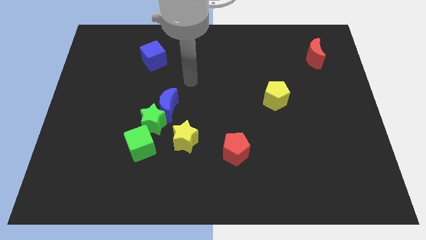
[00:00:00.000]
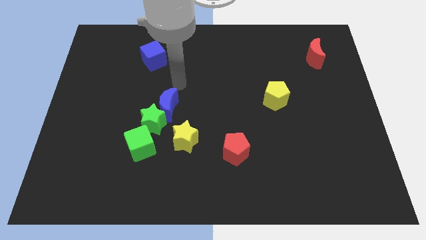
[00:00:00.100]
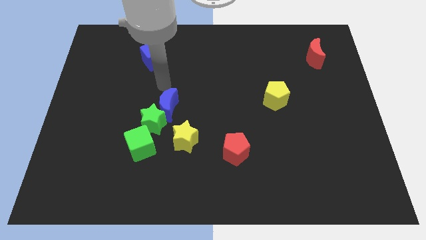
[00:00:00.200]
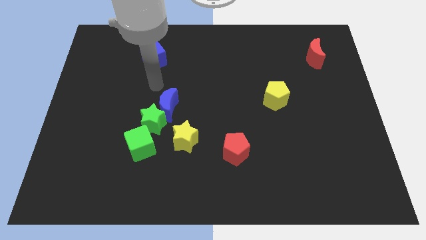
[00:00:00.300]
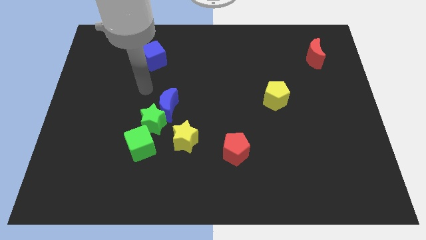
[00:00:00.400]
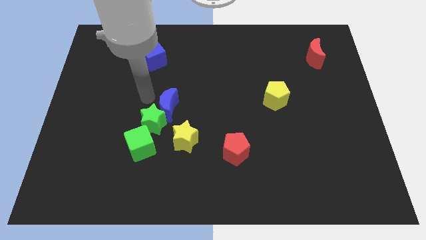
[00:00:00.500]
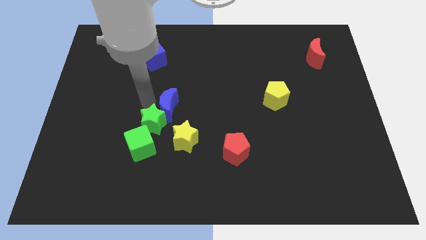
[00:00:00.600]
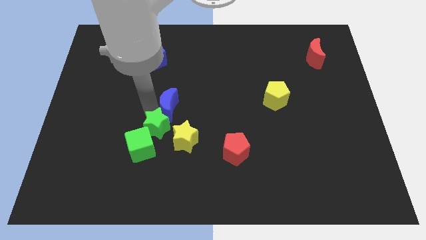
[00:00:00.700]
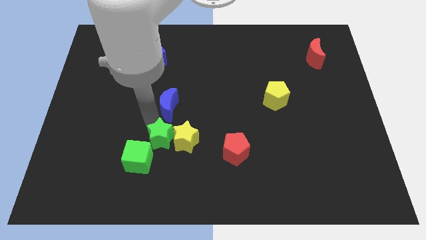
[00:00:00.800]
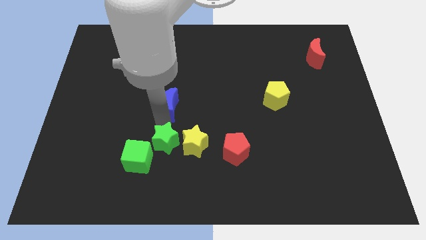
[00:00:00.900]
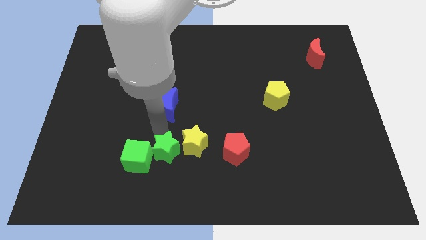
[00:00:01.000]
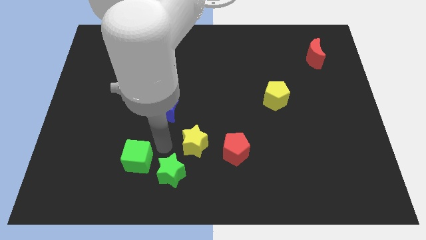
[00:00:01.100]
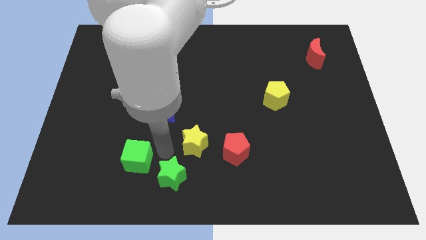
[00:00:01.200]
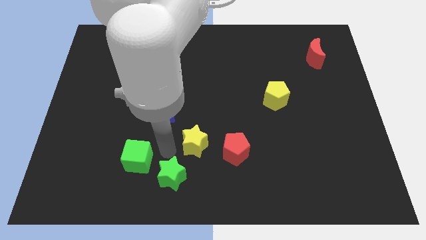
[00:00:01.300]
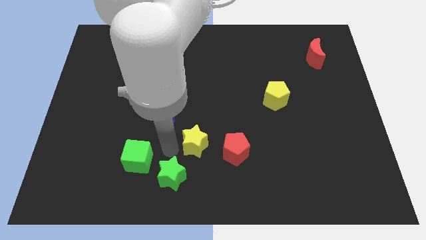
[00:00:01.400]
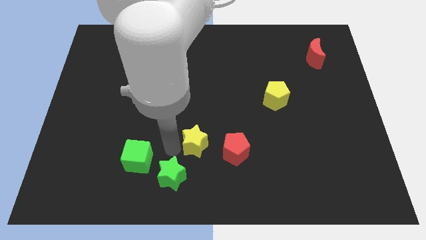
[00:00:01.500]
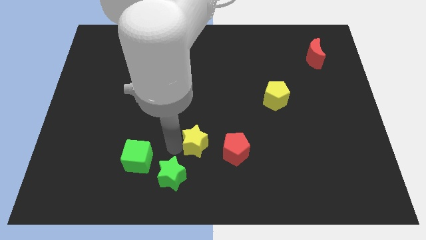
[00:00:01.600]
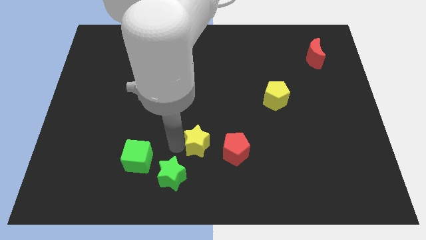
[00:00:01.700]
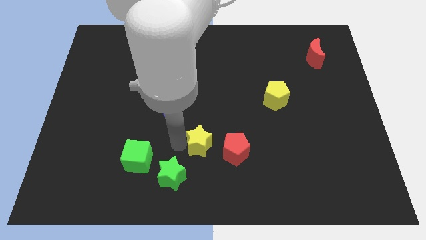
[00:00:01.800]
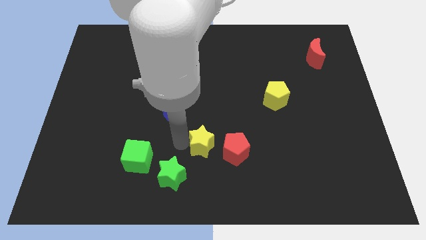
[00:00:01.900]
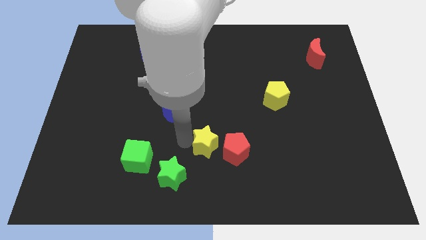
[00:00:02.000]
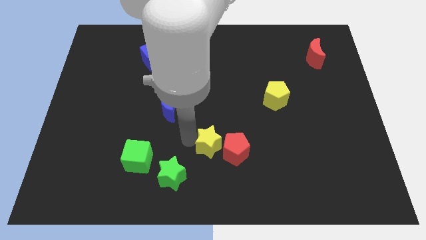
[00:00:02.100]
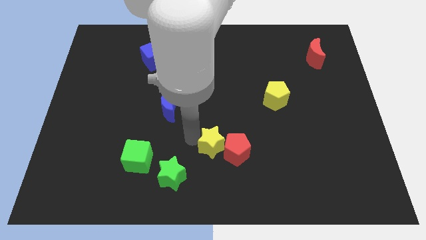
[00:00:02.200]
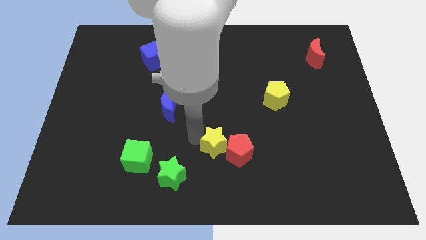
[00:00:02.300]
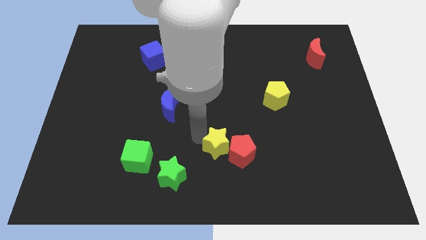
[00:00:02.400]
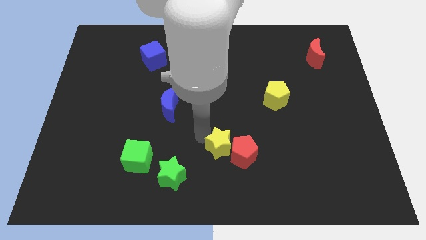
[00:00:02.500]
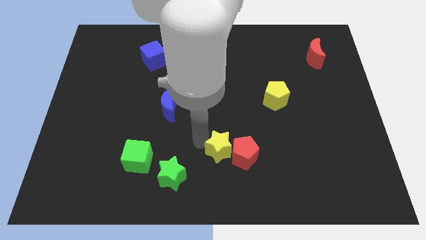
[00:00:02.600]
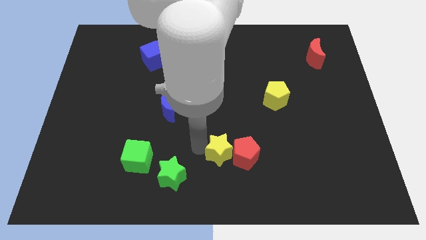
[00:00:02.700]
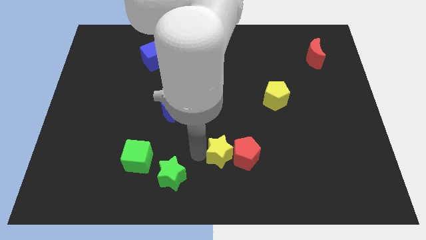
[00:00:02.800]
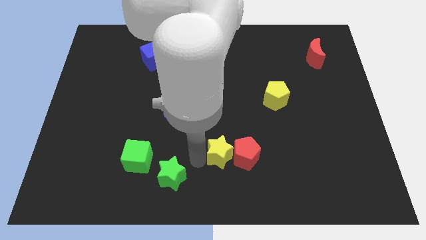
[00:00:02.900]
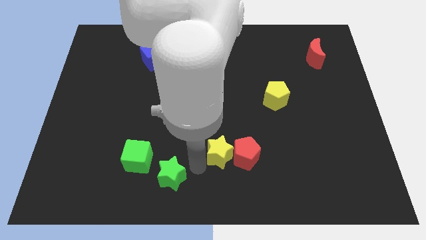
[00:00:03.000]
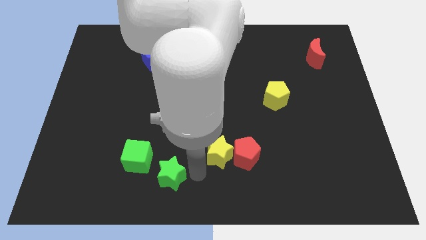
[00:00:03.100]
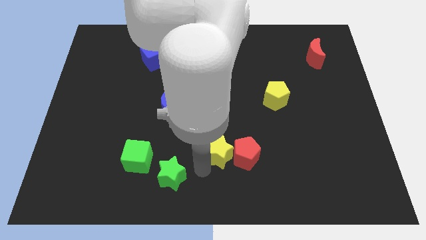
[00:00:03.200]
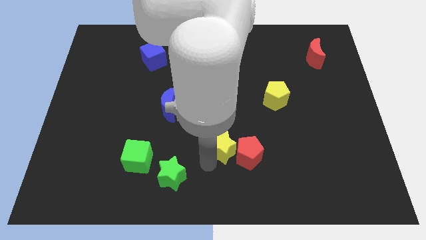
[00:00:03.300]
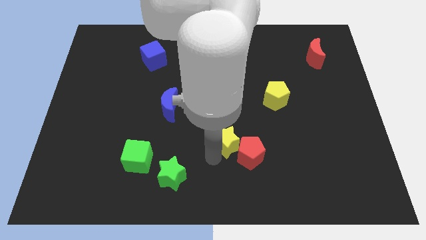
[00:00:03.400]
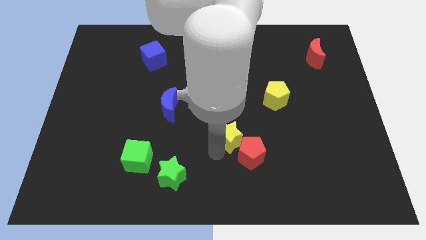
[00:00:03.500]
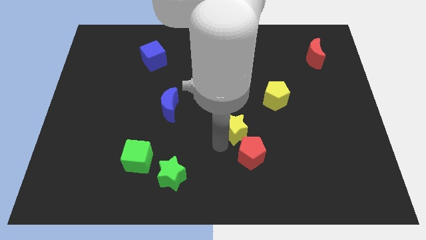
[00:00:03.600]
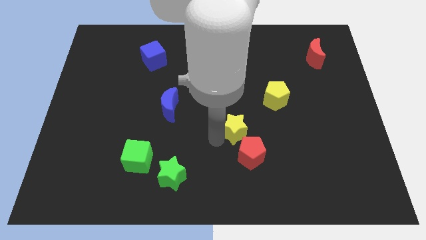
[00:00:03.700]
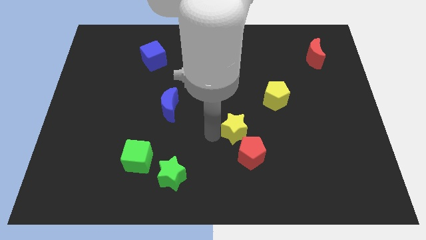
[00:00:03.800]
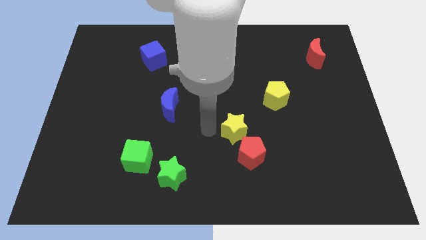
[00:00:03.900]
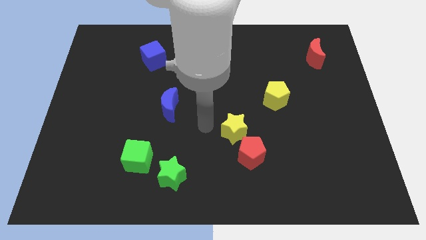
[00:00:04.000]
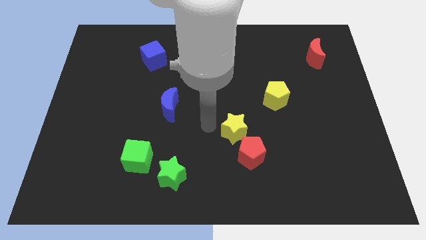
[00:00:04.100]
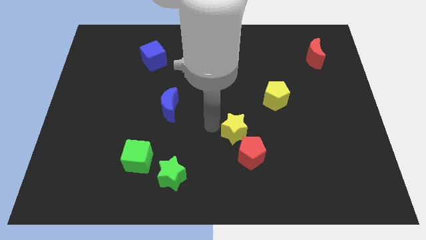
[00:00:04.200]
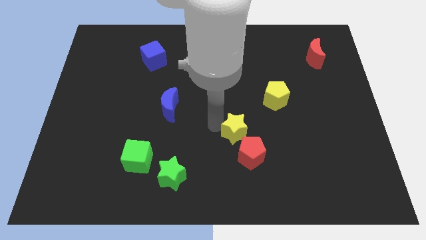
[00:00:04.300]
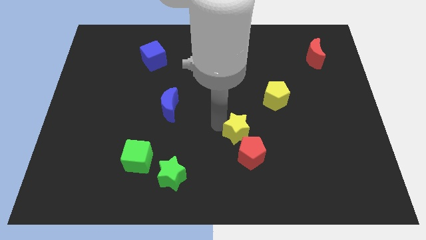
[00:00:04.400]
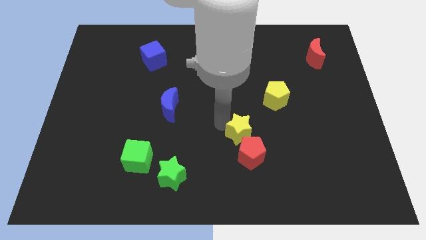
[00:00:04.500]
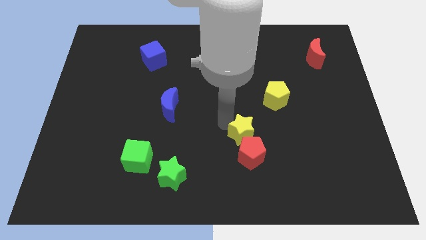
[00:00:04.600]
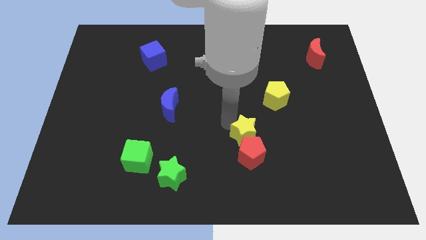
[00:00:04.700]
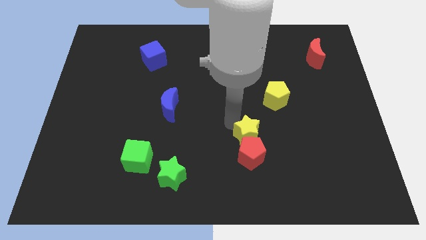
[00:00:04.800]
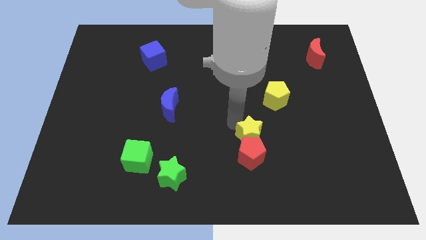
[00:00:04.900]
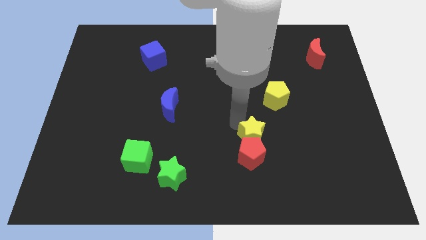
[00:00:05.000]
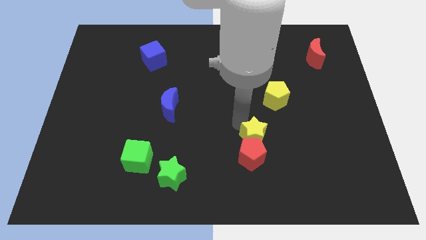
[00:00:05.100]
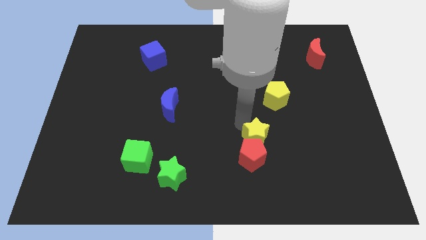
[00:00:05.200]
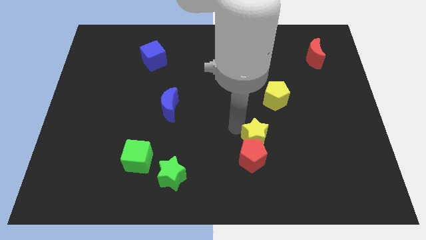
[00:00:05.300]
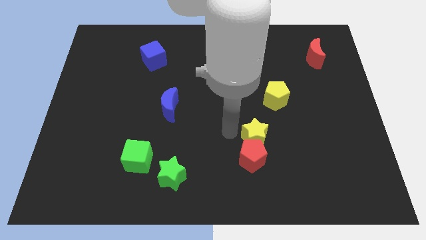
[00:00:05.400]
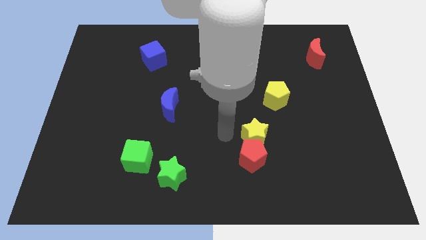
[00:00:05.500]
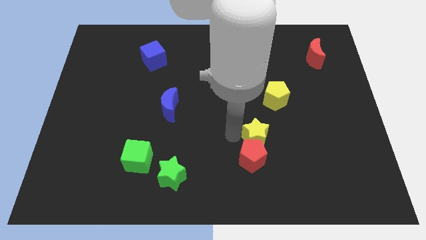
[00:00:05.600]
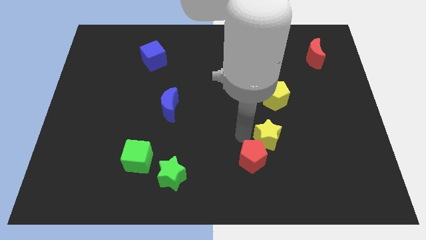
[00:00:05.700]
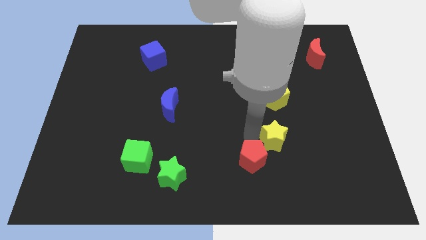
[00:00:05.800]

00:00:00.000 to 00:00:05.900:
push the yellow star right

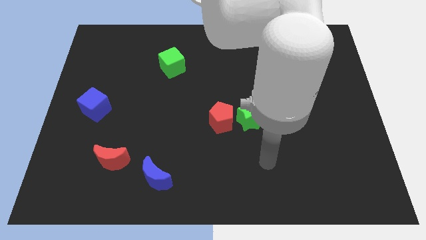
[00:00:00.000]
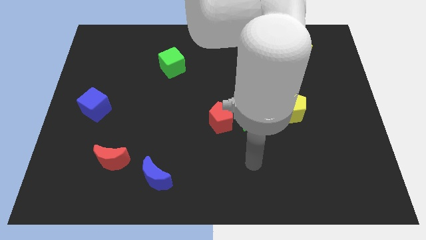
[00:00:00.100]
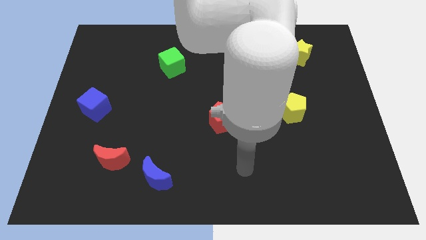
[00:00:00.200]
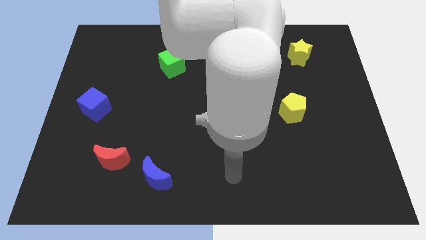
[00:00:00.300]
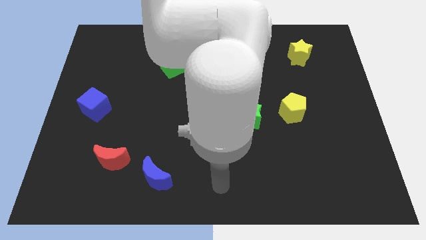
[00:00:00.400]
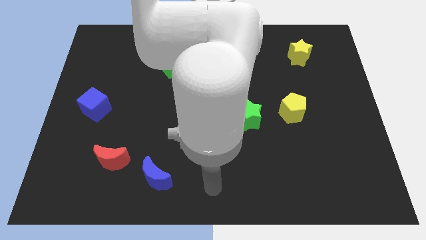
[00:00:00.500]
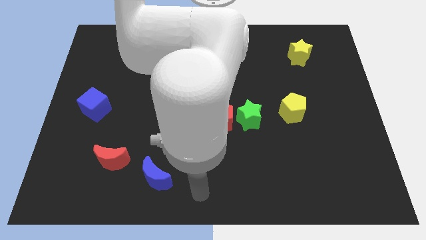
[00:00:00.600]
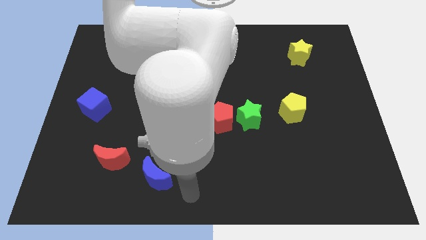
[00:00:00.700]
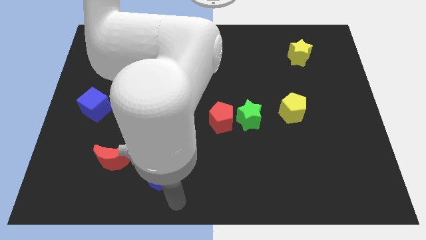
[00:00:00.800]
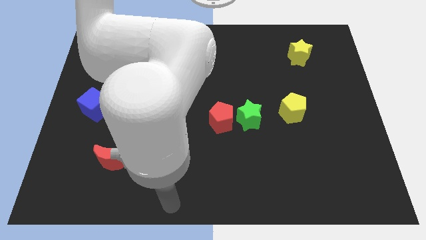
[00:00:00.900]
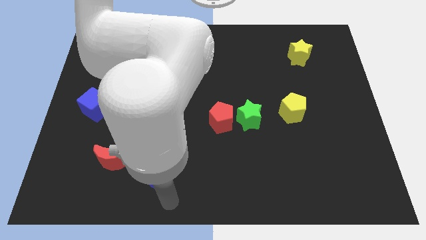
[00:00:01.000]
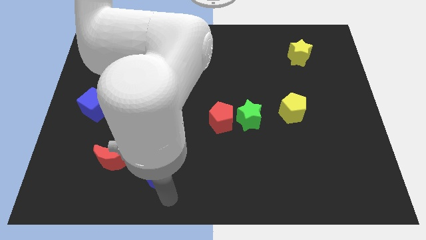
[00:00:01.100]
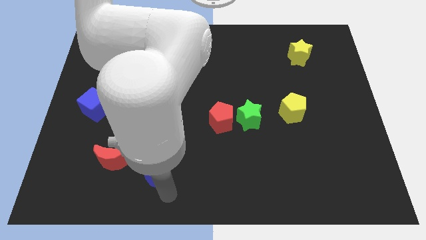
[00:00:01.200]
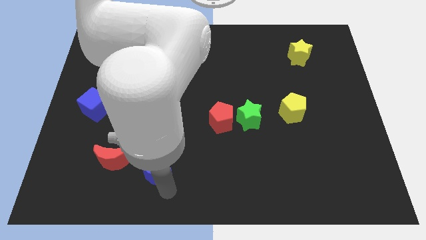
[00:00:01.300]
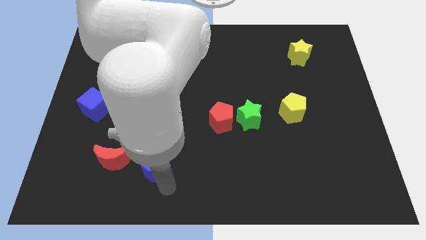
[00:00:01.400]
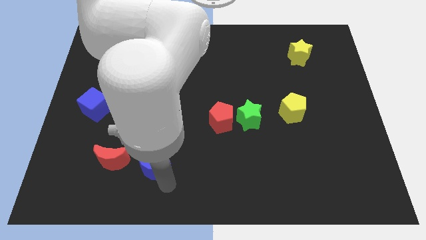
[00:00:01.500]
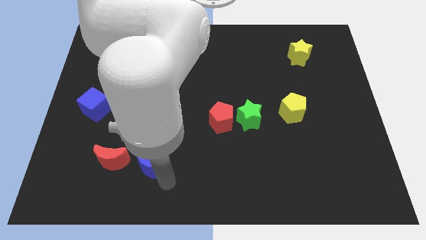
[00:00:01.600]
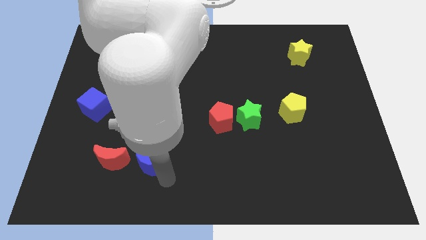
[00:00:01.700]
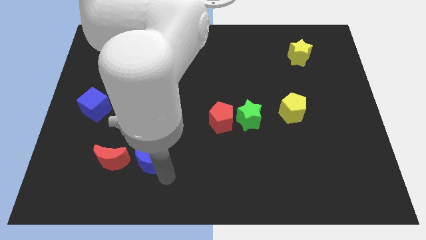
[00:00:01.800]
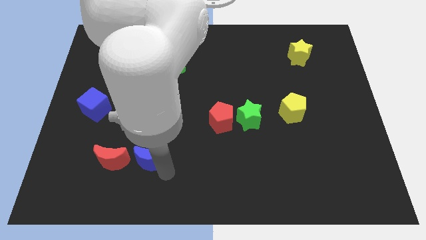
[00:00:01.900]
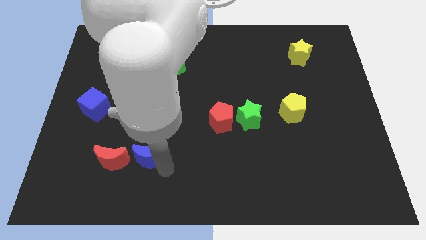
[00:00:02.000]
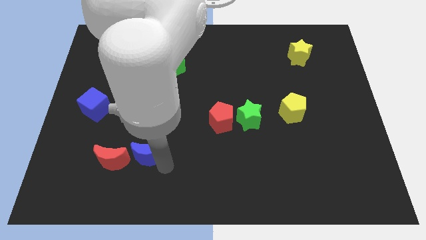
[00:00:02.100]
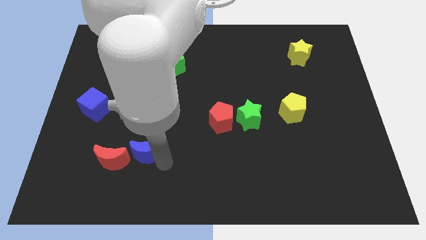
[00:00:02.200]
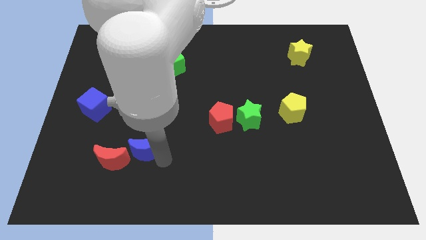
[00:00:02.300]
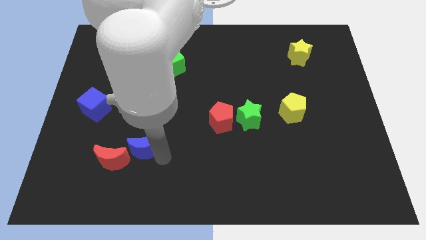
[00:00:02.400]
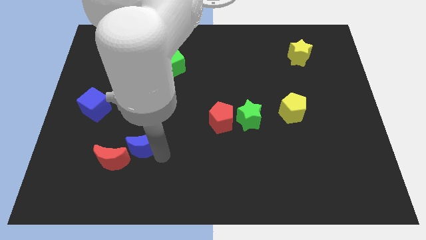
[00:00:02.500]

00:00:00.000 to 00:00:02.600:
move the blue moon somewhat diagonally up and to the left
